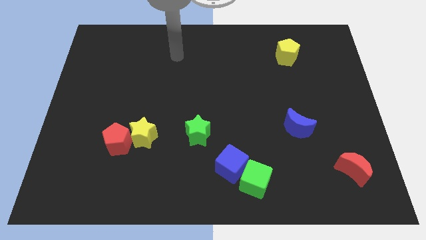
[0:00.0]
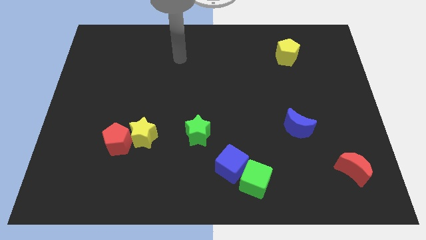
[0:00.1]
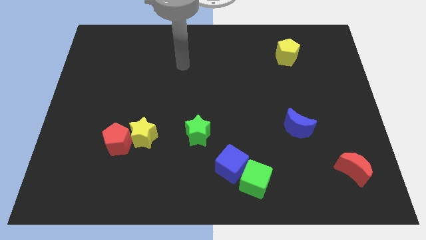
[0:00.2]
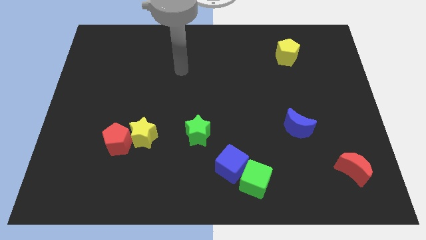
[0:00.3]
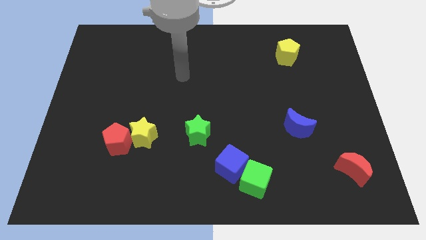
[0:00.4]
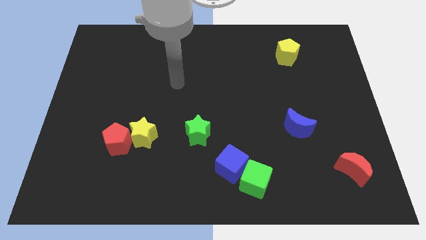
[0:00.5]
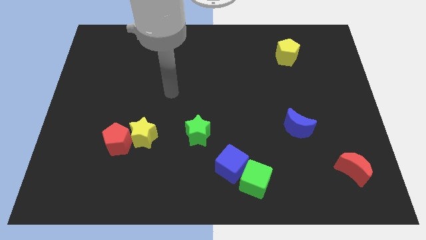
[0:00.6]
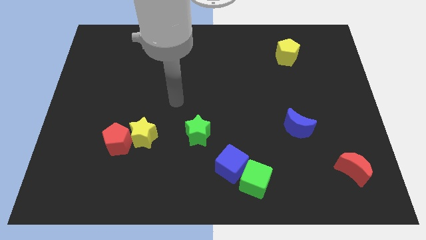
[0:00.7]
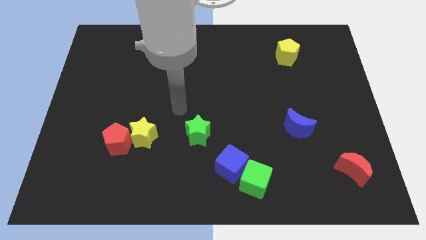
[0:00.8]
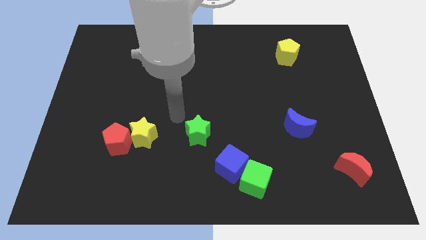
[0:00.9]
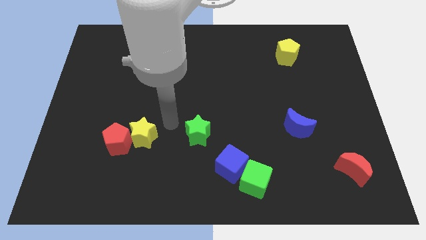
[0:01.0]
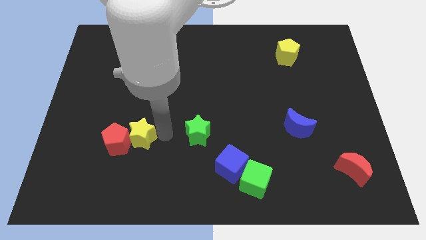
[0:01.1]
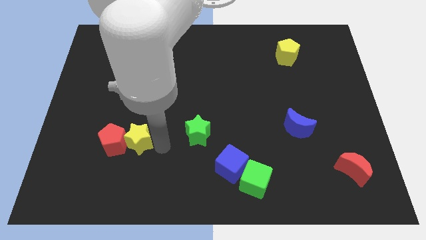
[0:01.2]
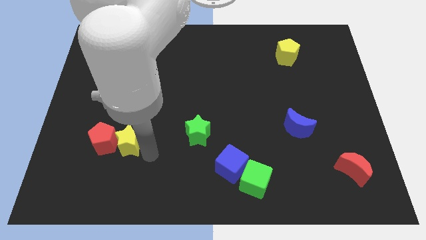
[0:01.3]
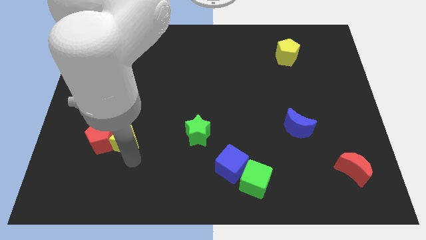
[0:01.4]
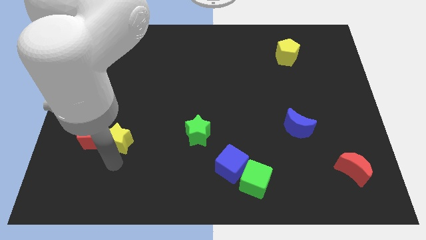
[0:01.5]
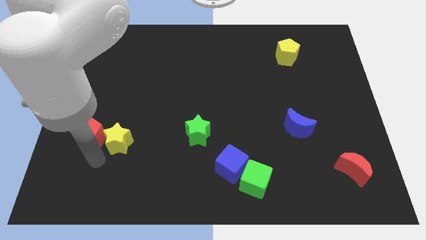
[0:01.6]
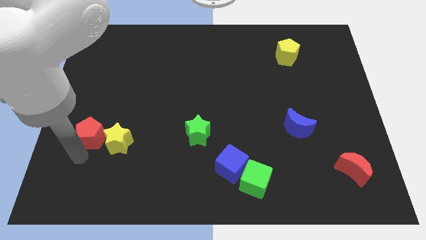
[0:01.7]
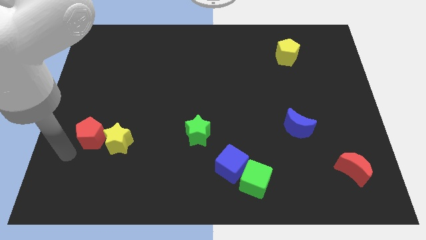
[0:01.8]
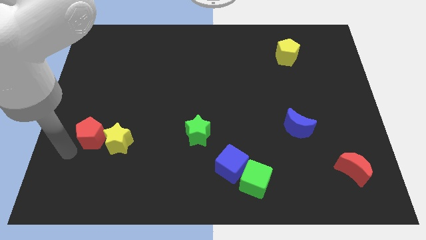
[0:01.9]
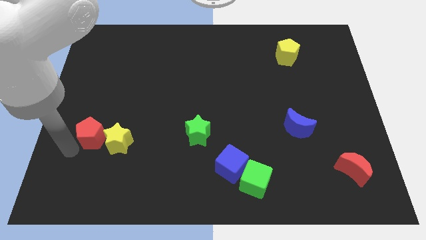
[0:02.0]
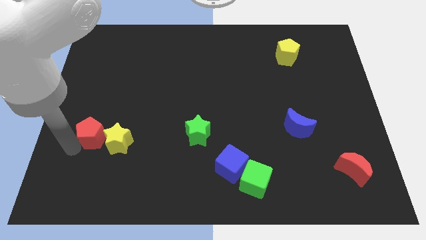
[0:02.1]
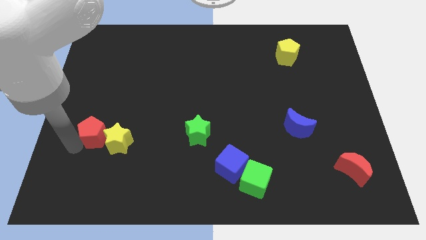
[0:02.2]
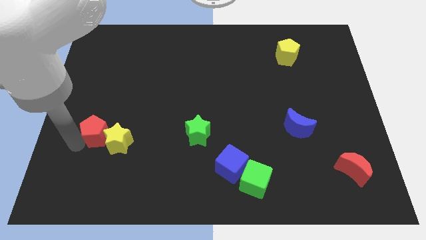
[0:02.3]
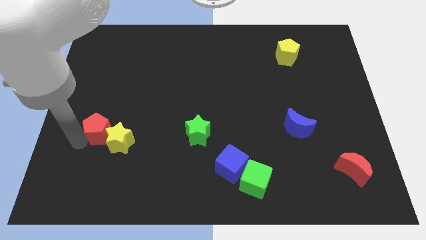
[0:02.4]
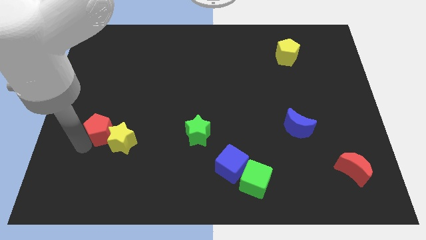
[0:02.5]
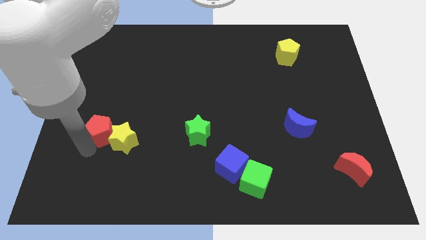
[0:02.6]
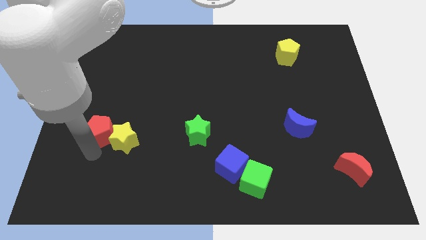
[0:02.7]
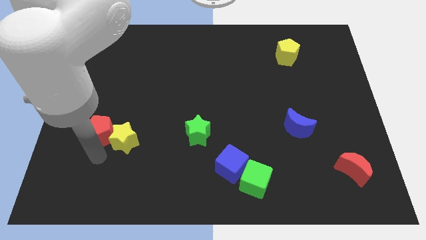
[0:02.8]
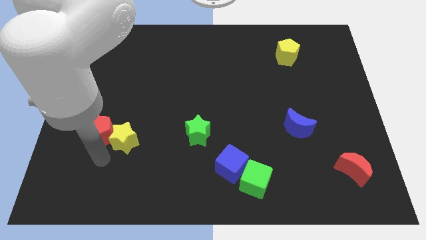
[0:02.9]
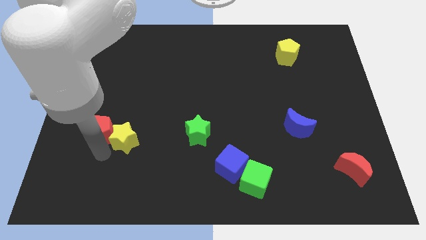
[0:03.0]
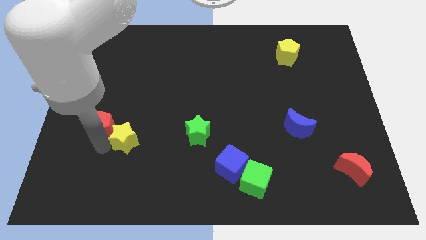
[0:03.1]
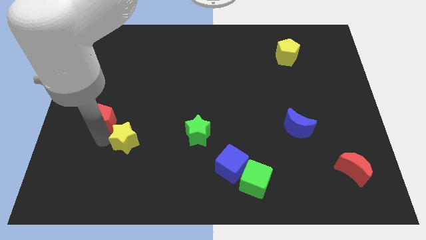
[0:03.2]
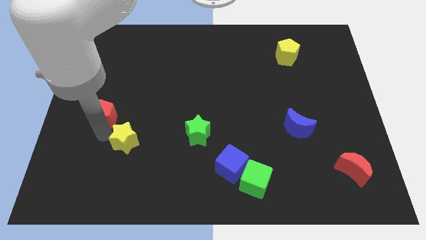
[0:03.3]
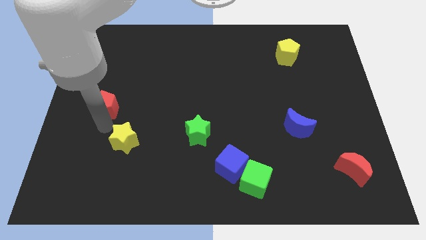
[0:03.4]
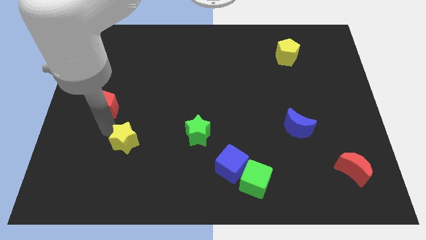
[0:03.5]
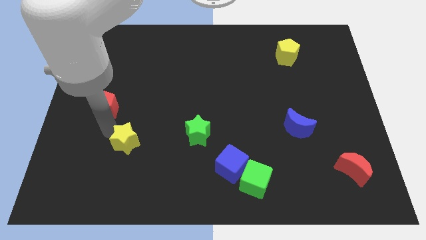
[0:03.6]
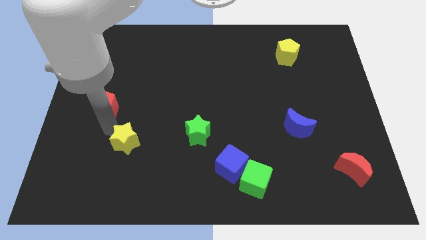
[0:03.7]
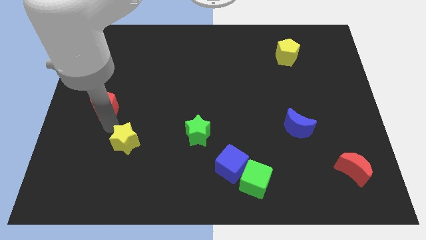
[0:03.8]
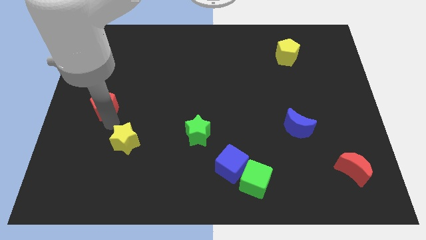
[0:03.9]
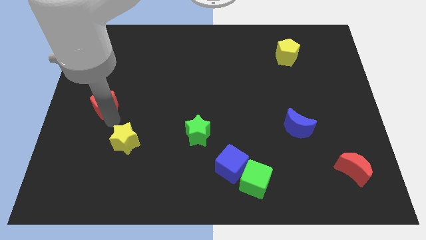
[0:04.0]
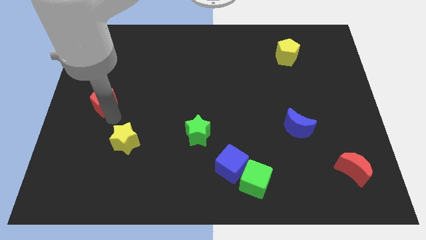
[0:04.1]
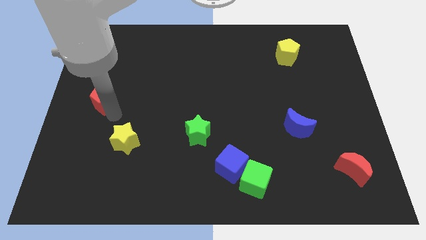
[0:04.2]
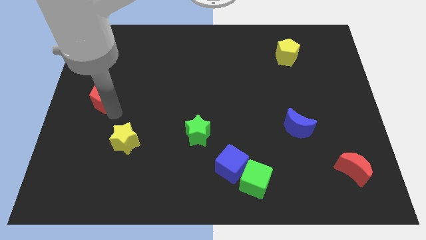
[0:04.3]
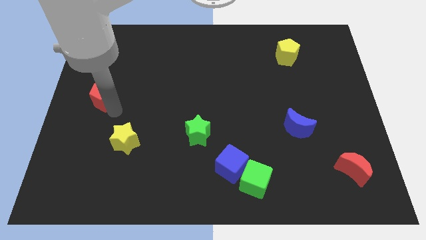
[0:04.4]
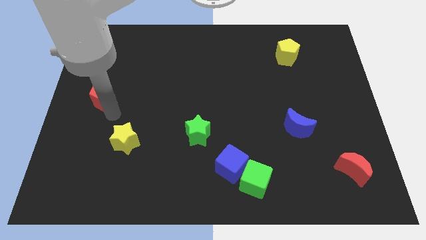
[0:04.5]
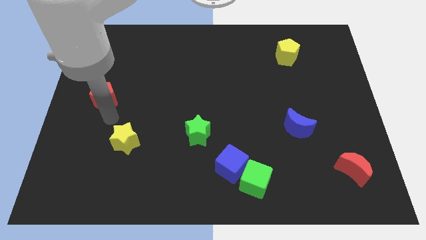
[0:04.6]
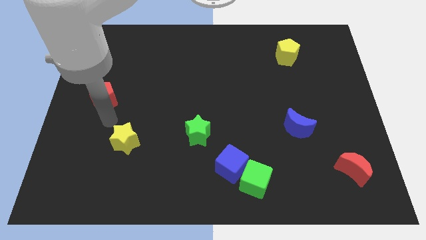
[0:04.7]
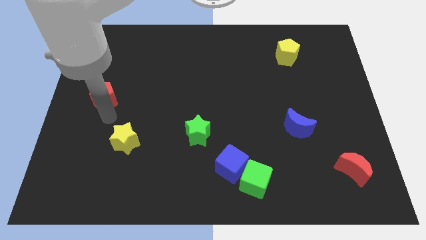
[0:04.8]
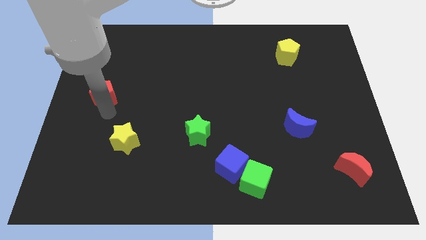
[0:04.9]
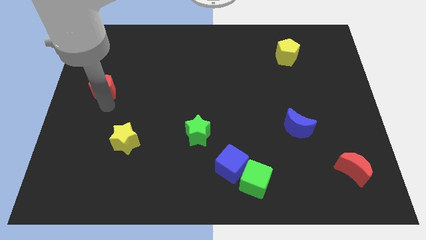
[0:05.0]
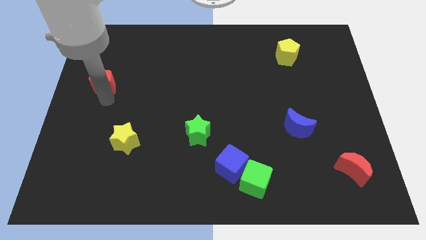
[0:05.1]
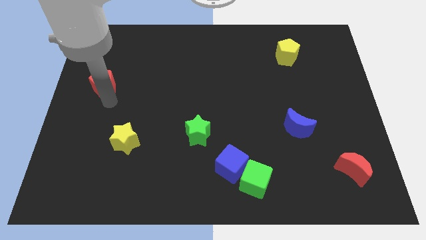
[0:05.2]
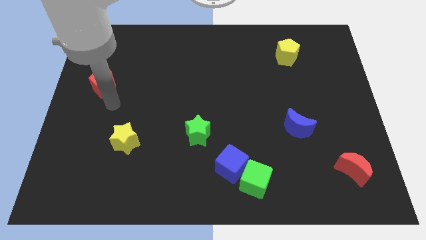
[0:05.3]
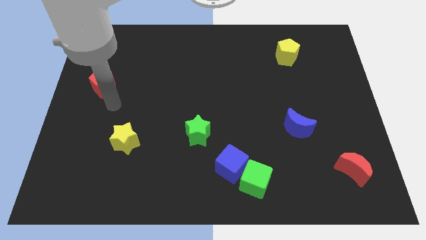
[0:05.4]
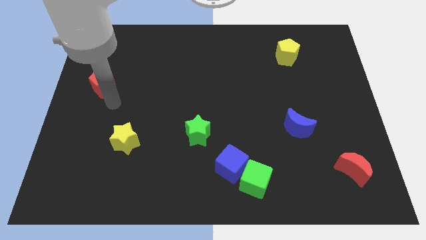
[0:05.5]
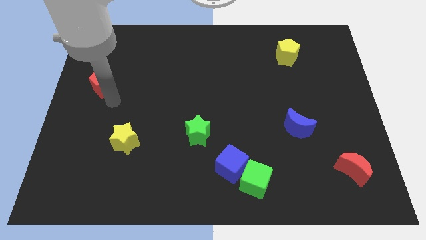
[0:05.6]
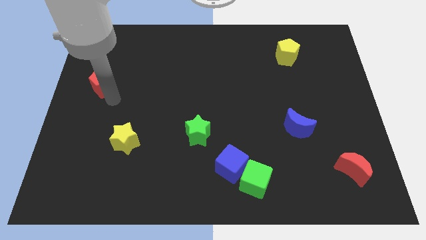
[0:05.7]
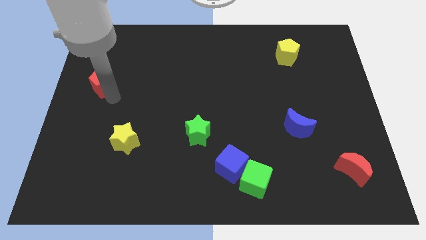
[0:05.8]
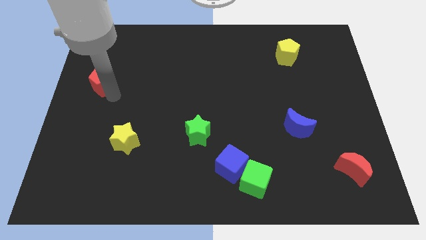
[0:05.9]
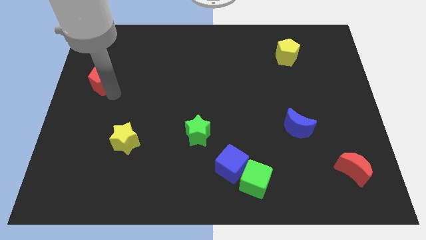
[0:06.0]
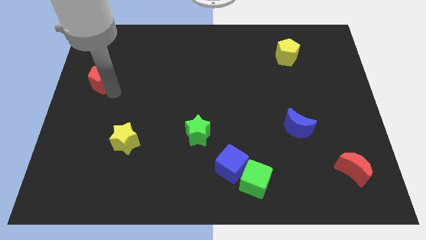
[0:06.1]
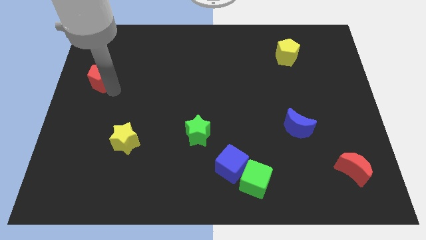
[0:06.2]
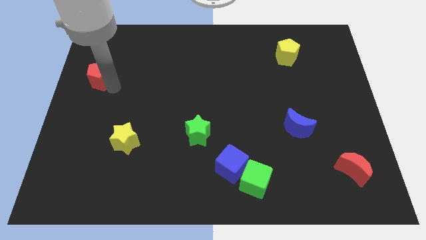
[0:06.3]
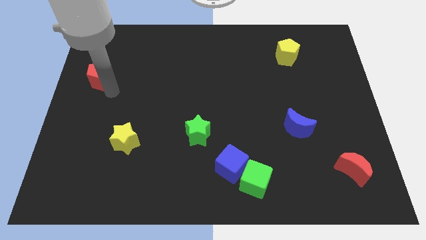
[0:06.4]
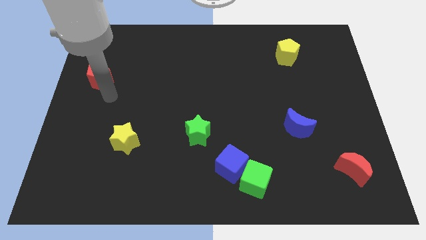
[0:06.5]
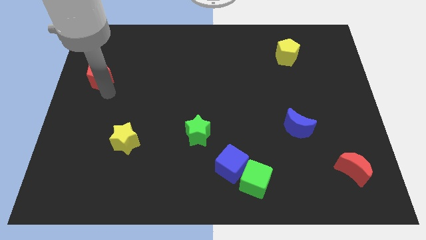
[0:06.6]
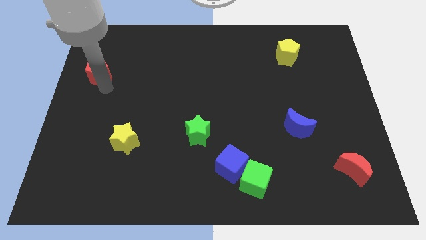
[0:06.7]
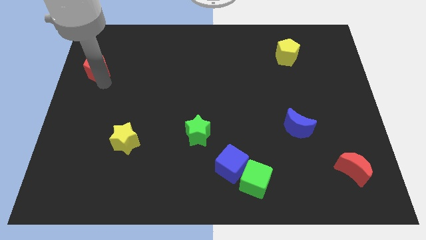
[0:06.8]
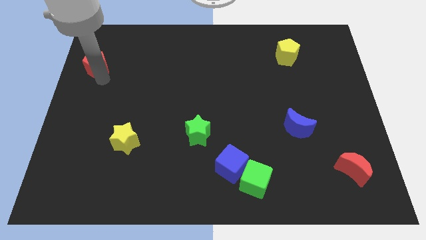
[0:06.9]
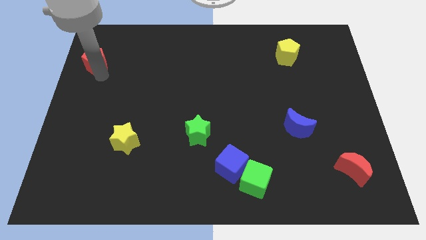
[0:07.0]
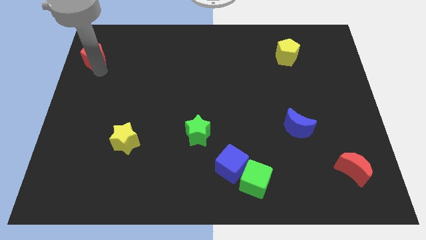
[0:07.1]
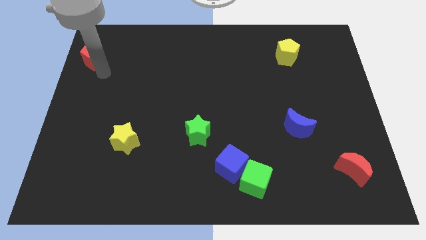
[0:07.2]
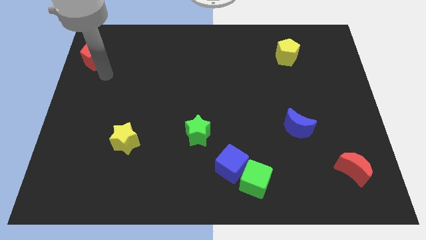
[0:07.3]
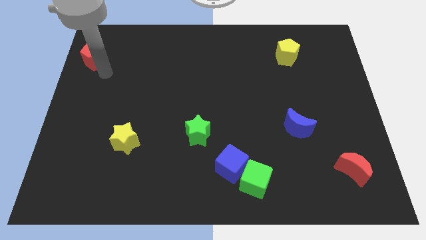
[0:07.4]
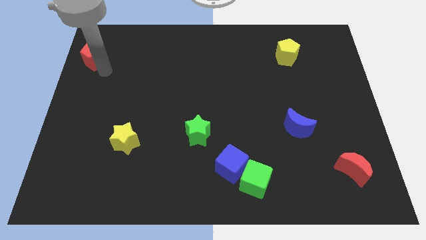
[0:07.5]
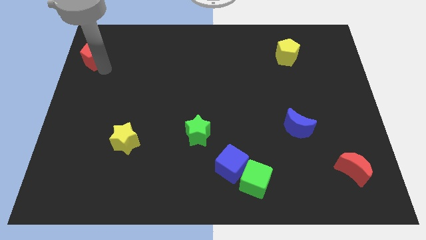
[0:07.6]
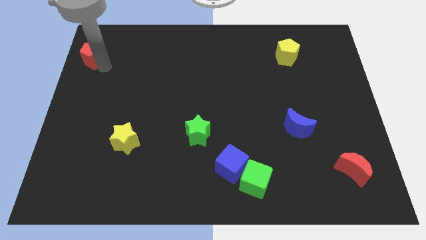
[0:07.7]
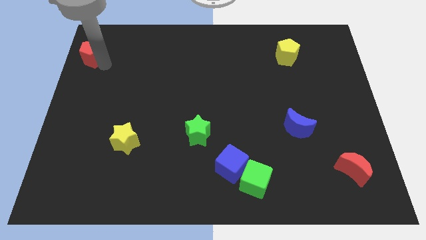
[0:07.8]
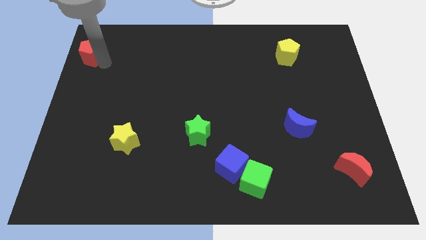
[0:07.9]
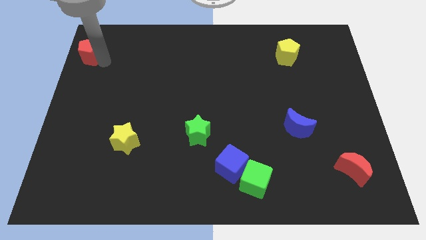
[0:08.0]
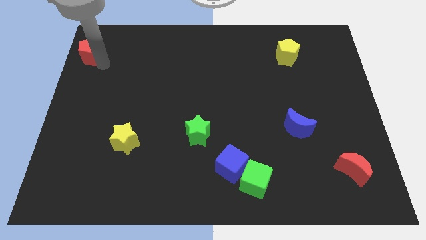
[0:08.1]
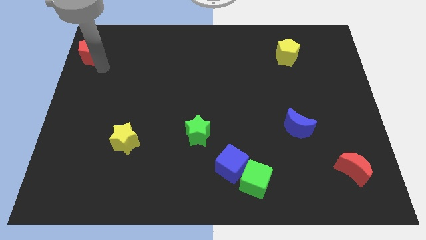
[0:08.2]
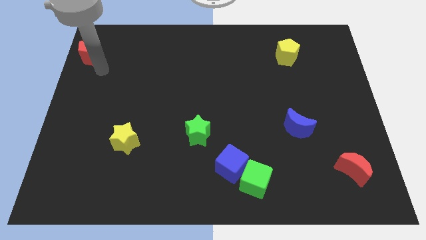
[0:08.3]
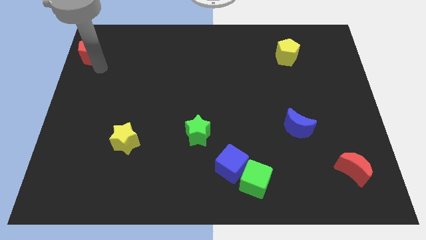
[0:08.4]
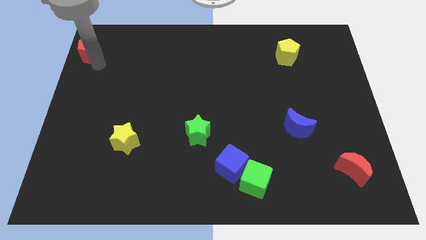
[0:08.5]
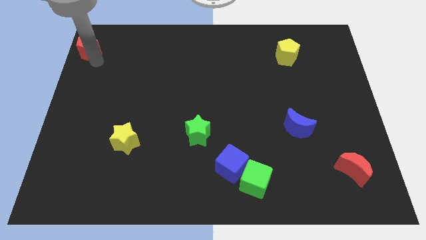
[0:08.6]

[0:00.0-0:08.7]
push the red pentagon to the top left of the board
